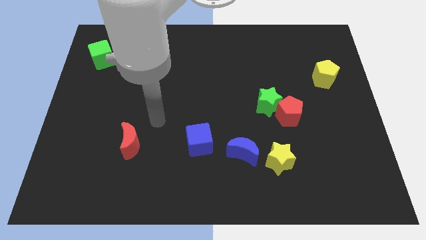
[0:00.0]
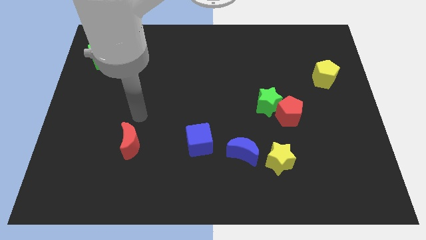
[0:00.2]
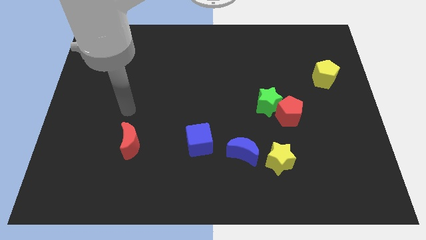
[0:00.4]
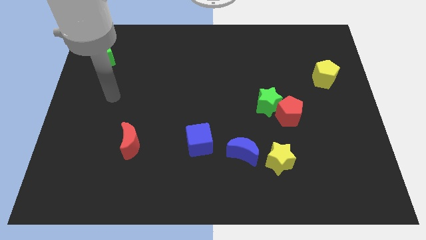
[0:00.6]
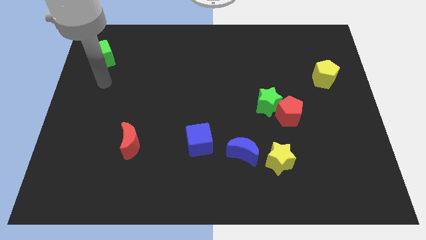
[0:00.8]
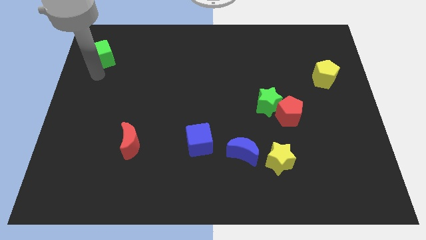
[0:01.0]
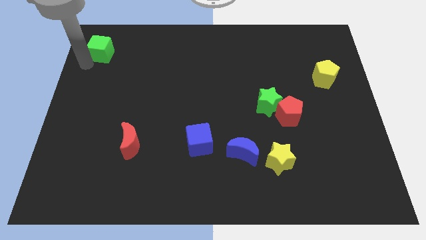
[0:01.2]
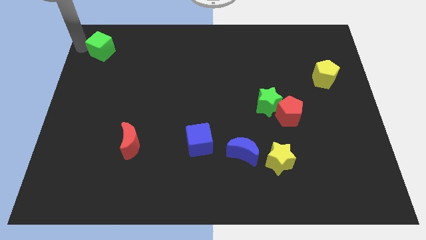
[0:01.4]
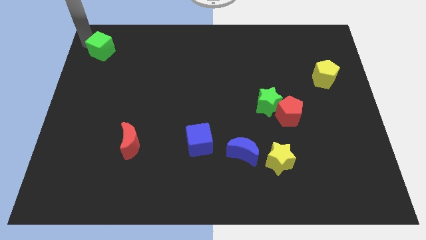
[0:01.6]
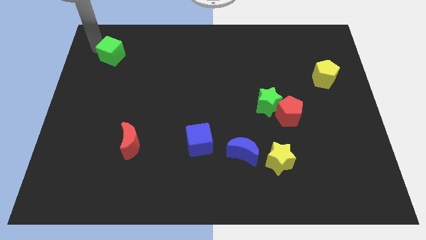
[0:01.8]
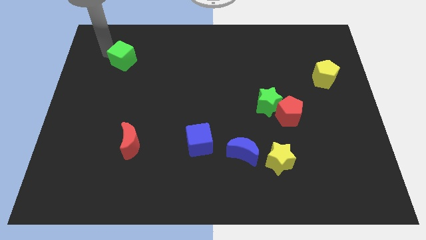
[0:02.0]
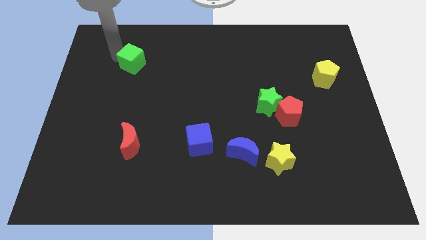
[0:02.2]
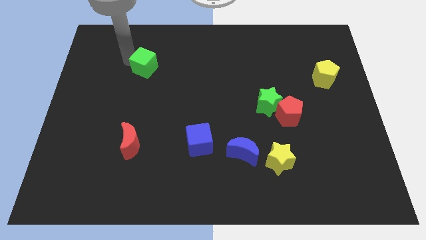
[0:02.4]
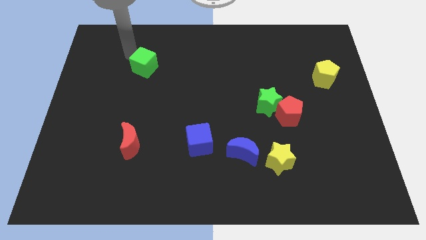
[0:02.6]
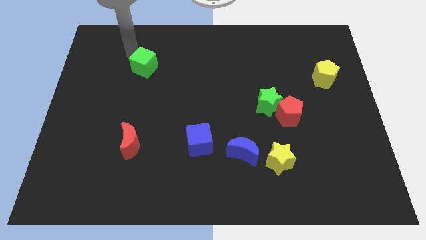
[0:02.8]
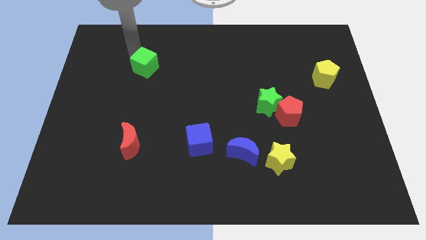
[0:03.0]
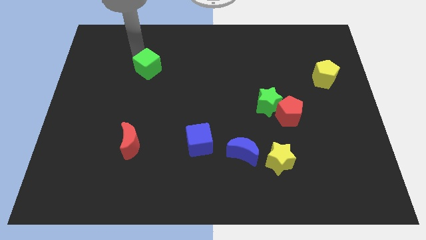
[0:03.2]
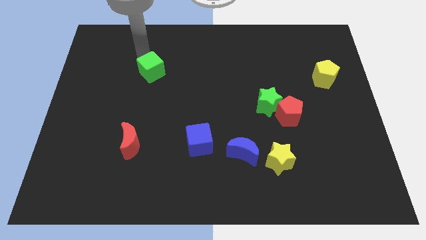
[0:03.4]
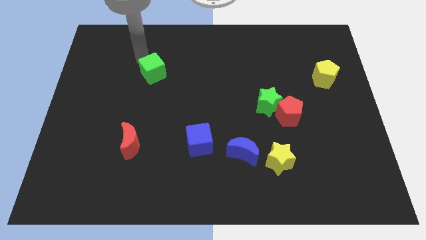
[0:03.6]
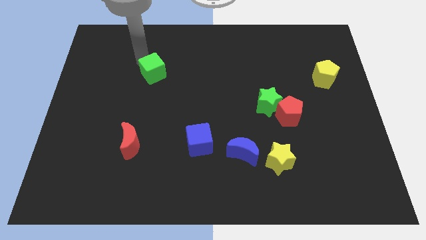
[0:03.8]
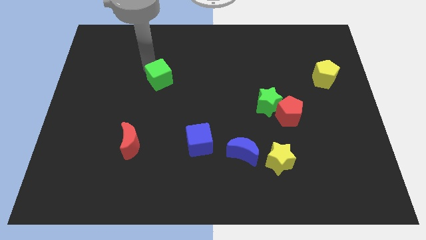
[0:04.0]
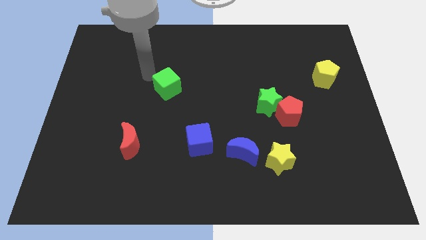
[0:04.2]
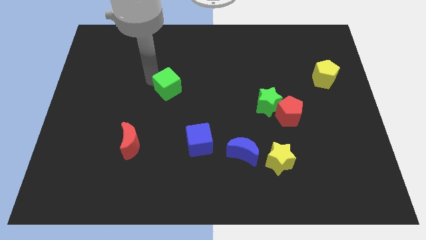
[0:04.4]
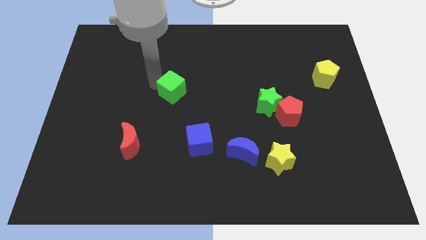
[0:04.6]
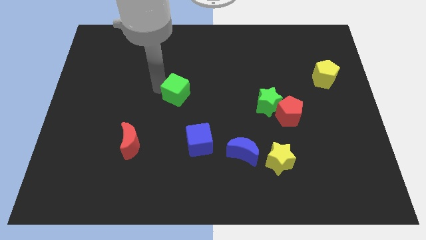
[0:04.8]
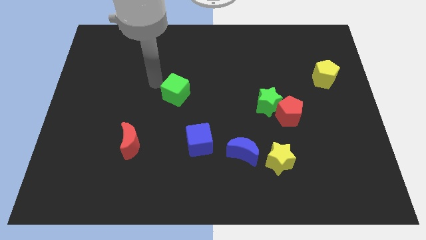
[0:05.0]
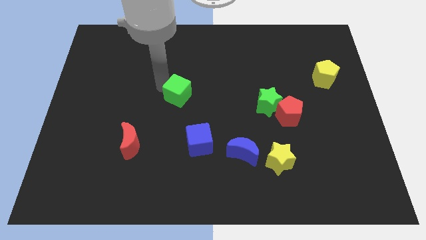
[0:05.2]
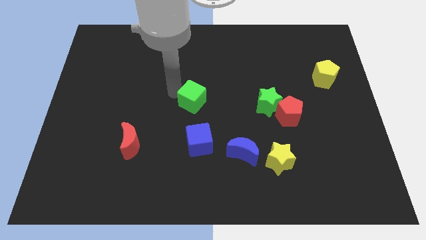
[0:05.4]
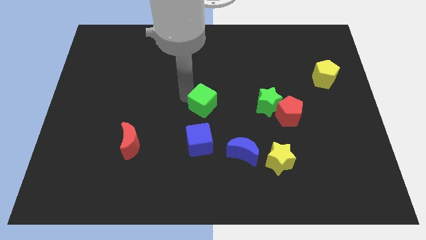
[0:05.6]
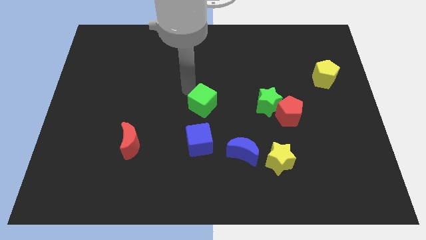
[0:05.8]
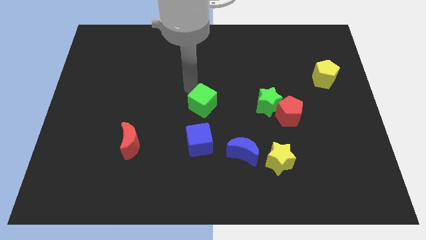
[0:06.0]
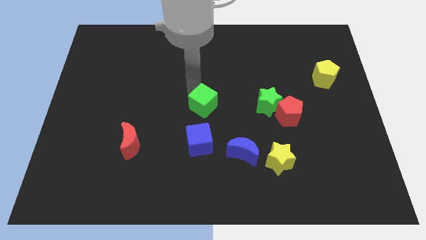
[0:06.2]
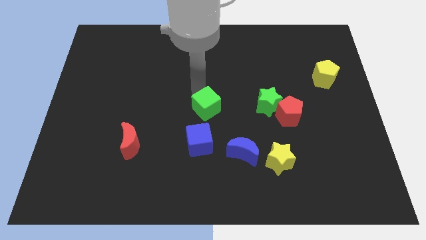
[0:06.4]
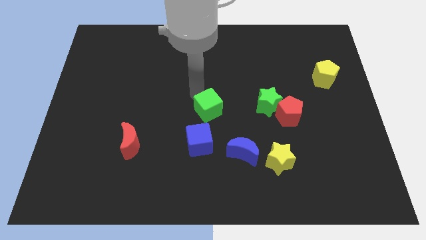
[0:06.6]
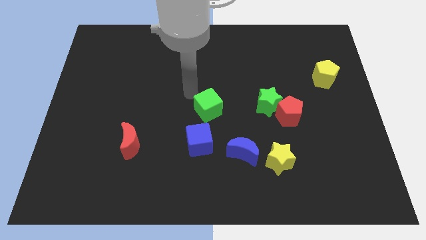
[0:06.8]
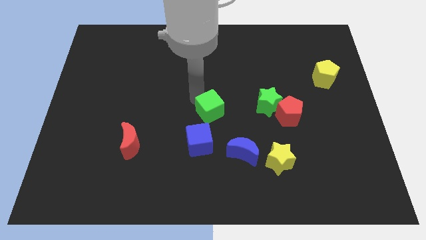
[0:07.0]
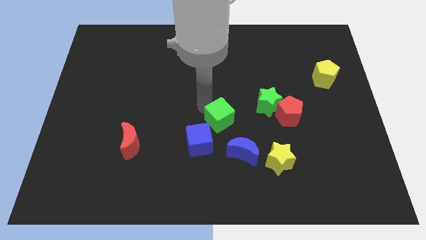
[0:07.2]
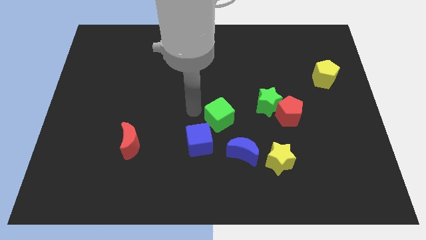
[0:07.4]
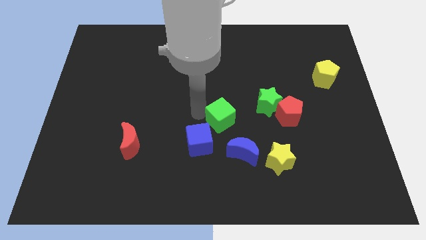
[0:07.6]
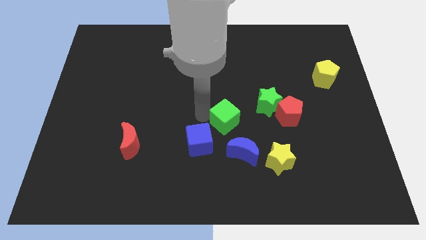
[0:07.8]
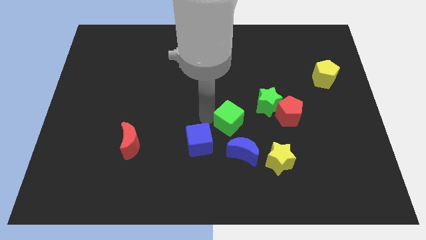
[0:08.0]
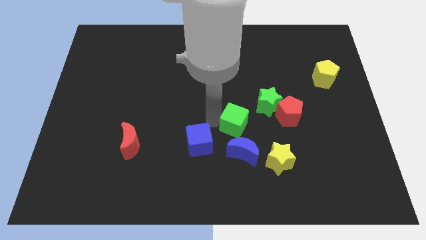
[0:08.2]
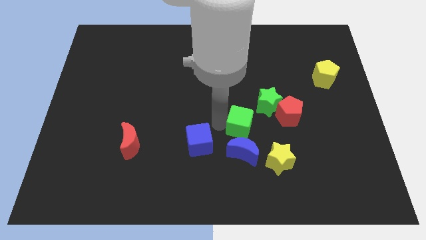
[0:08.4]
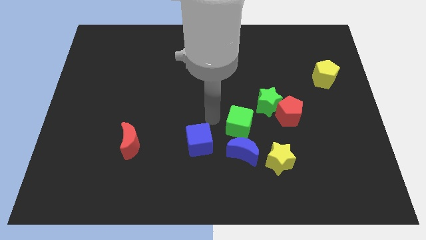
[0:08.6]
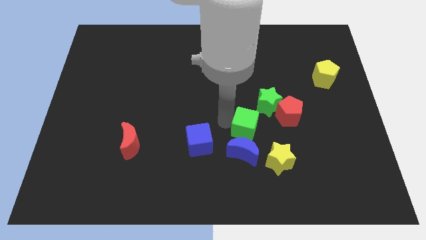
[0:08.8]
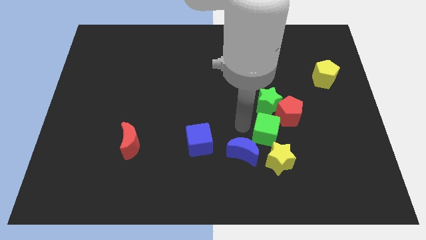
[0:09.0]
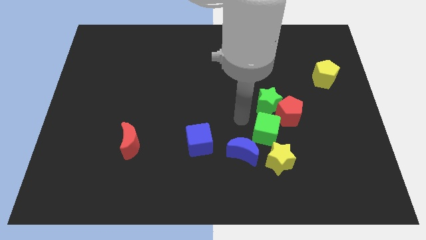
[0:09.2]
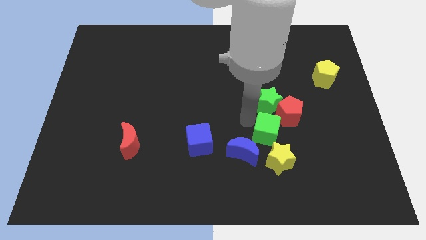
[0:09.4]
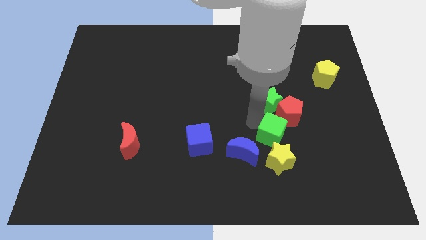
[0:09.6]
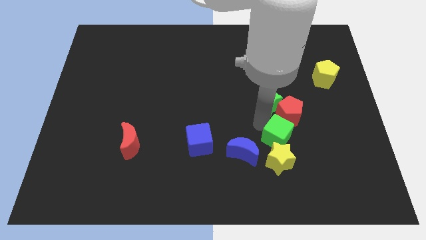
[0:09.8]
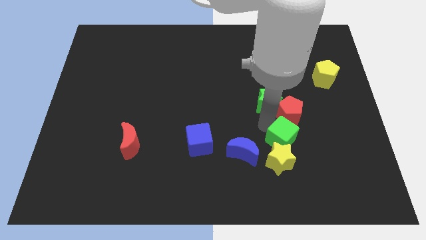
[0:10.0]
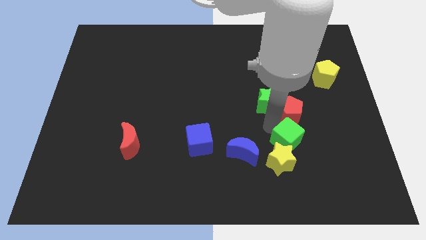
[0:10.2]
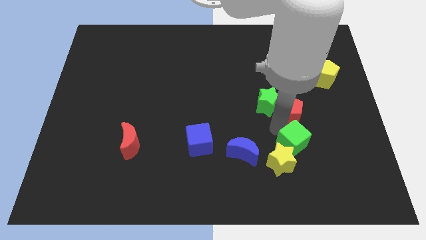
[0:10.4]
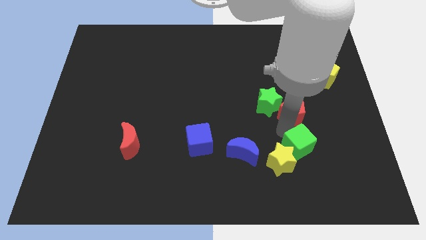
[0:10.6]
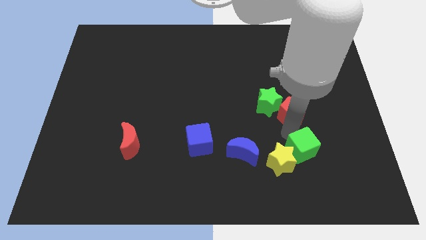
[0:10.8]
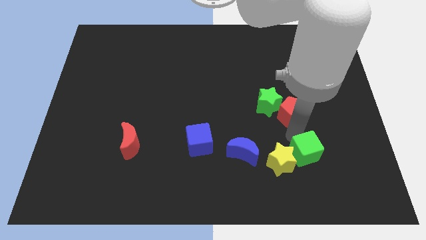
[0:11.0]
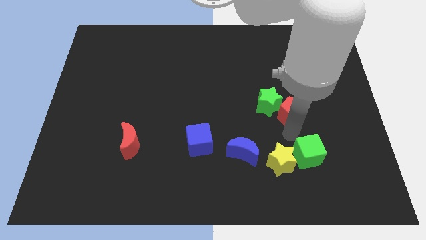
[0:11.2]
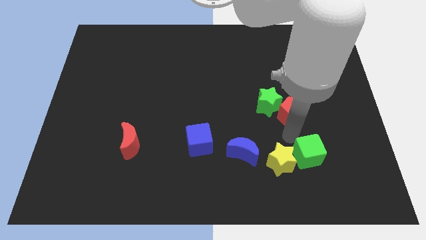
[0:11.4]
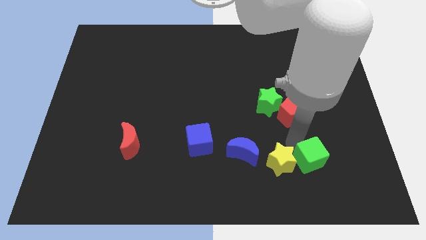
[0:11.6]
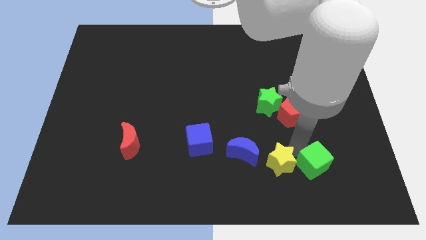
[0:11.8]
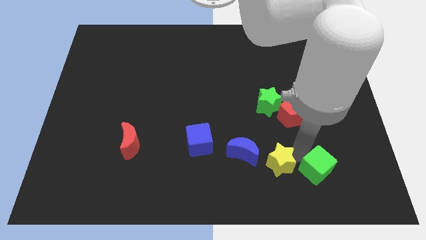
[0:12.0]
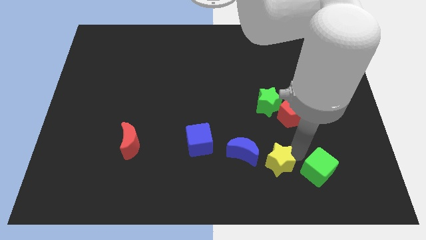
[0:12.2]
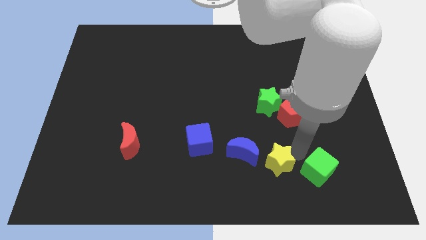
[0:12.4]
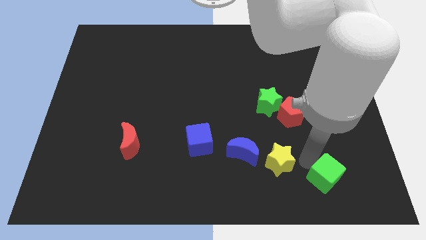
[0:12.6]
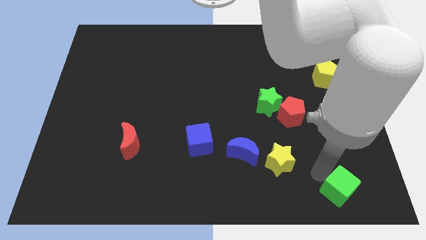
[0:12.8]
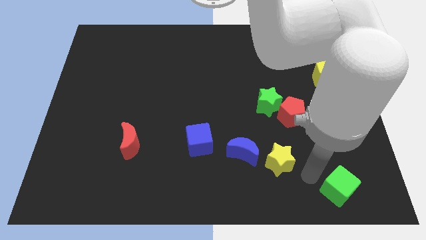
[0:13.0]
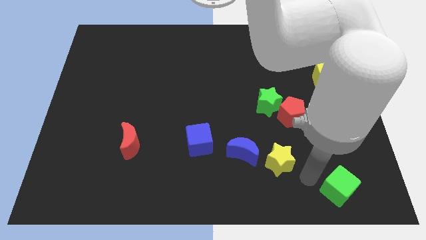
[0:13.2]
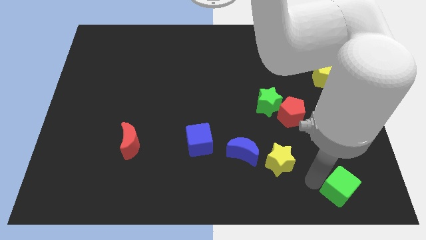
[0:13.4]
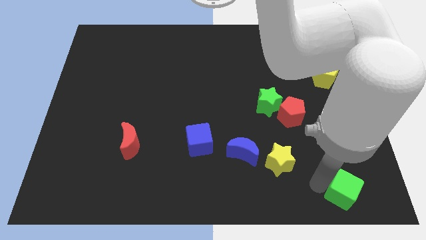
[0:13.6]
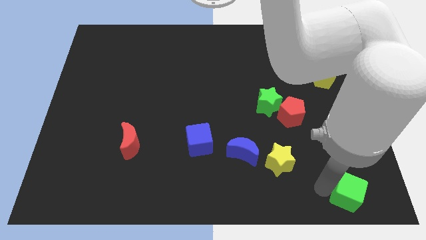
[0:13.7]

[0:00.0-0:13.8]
put the green cube to the bottom right
